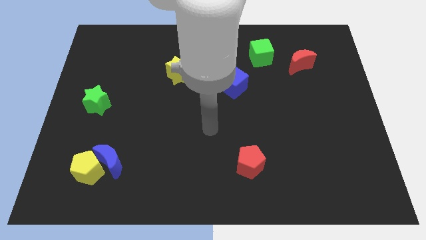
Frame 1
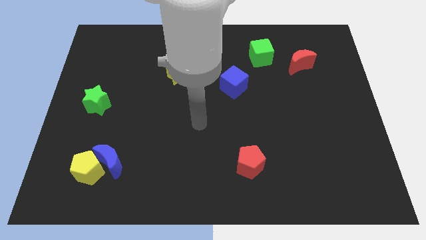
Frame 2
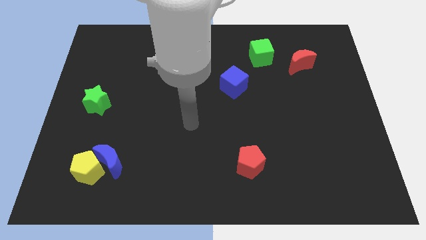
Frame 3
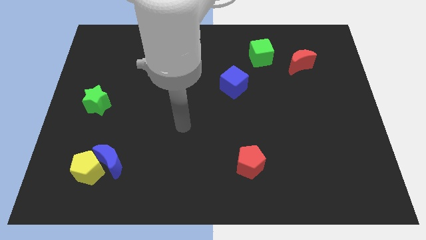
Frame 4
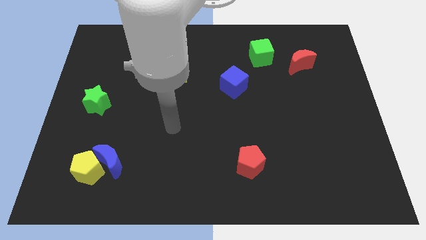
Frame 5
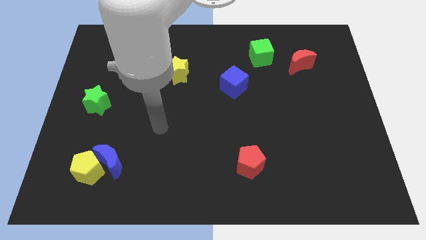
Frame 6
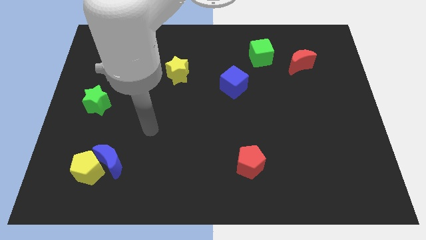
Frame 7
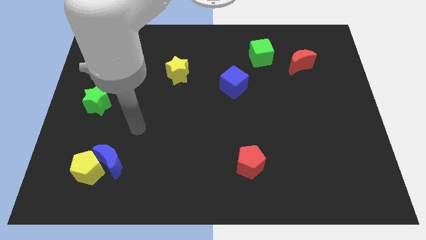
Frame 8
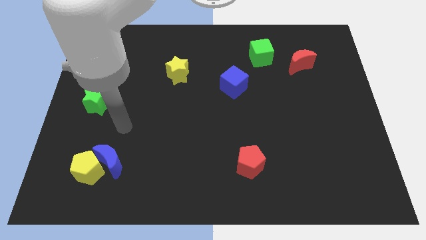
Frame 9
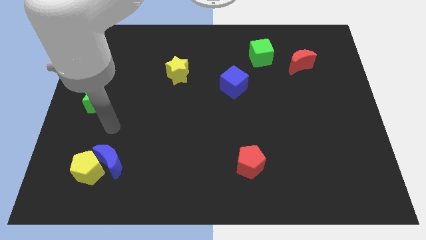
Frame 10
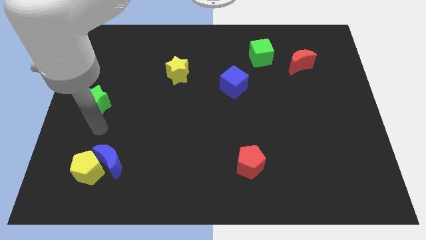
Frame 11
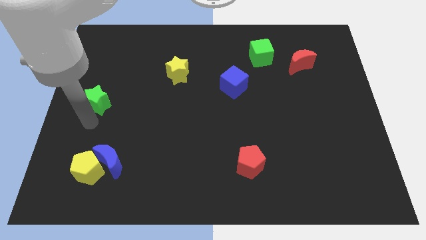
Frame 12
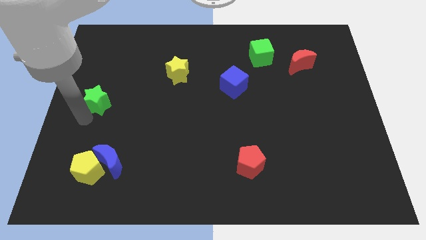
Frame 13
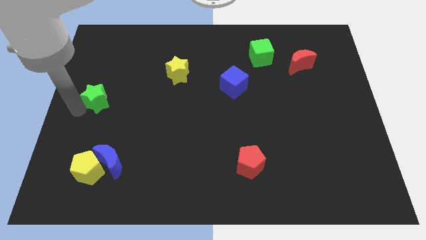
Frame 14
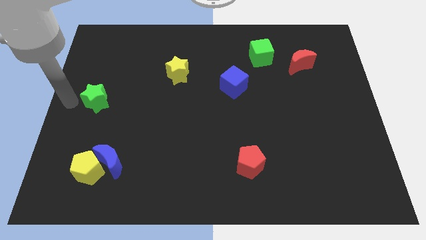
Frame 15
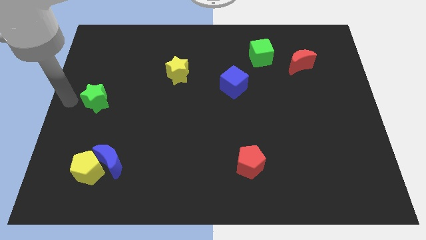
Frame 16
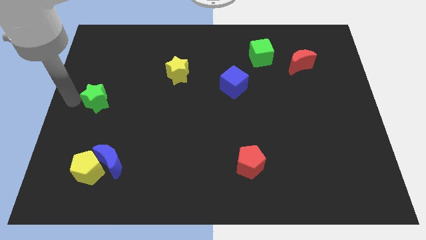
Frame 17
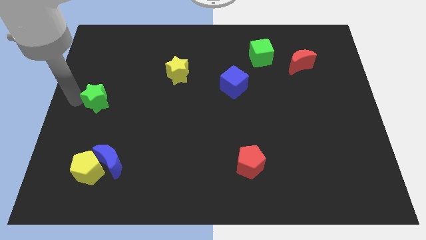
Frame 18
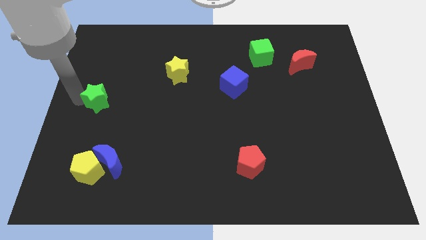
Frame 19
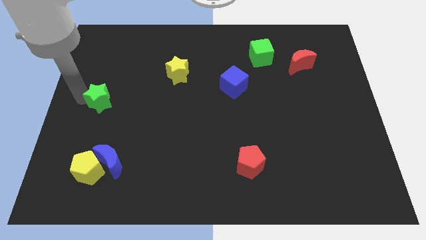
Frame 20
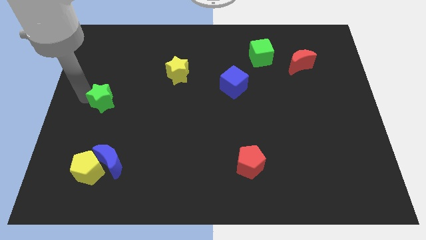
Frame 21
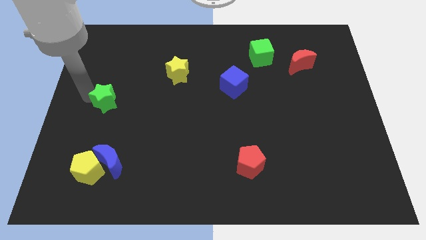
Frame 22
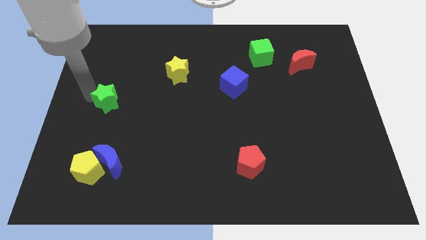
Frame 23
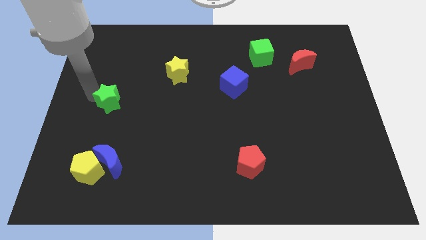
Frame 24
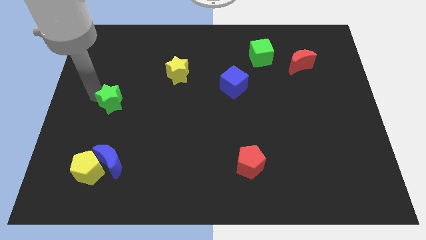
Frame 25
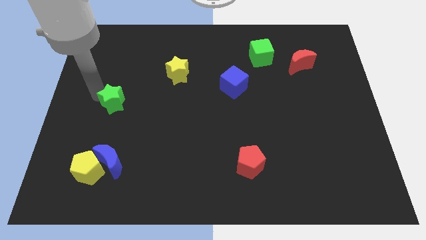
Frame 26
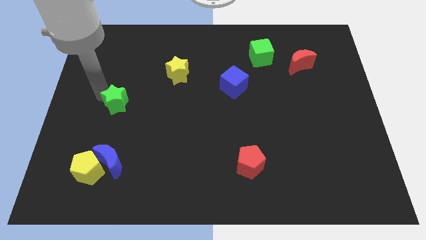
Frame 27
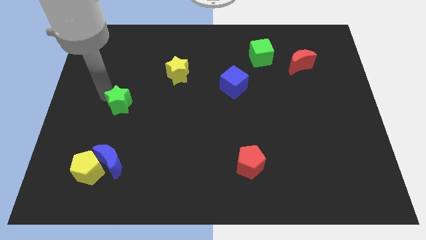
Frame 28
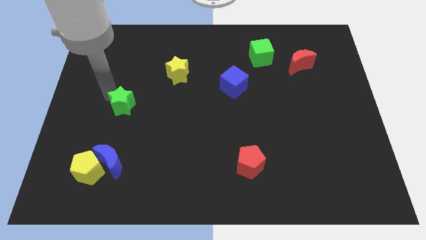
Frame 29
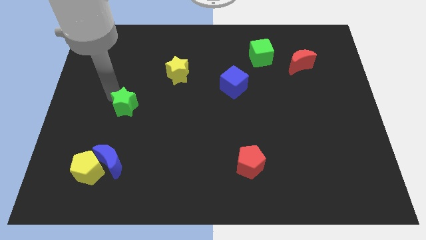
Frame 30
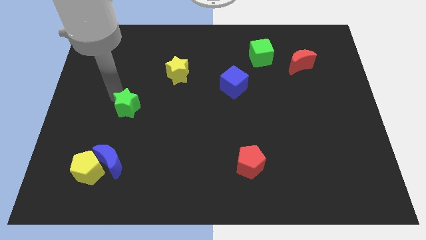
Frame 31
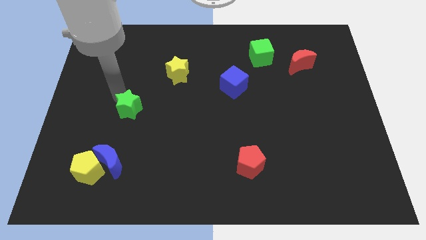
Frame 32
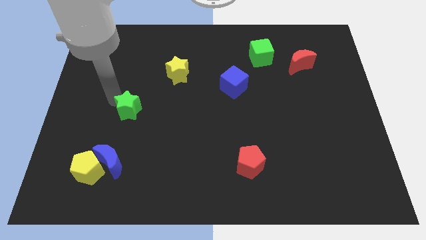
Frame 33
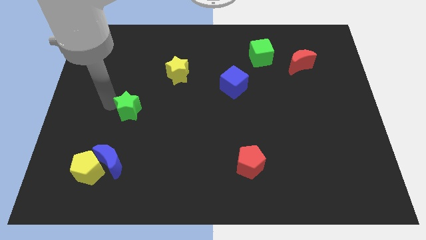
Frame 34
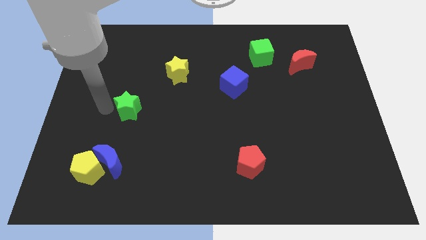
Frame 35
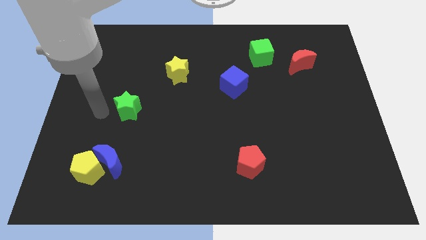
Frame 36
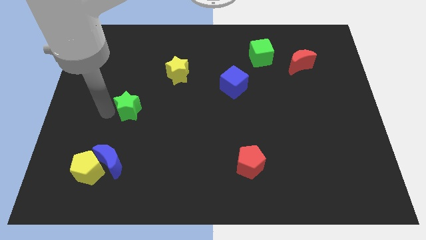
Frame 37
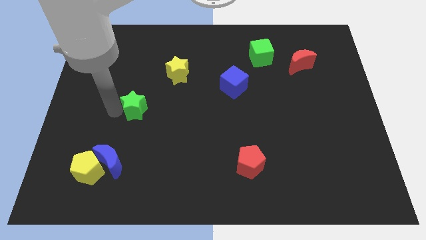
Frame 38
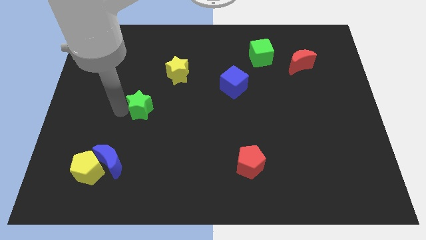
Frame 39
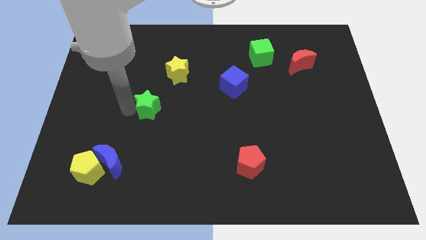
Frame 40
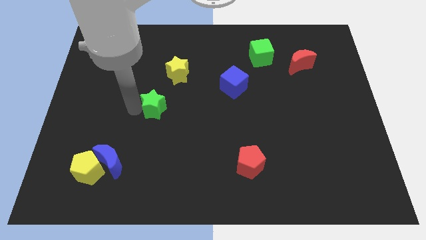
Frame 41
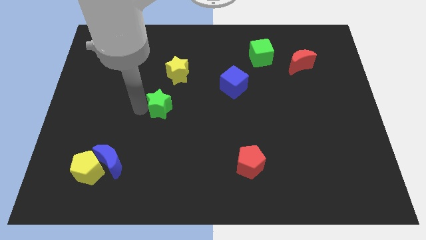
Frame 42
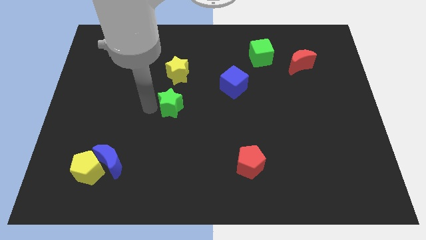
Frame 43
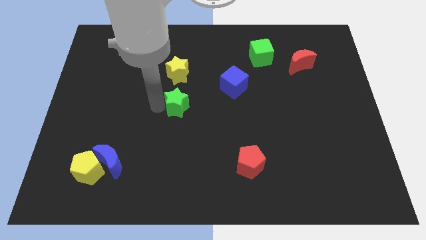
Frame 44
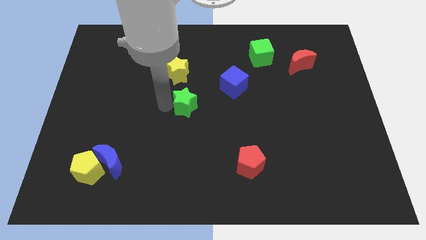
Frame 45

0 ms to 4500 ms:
move the green star right

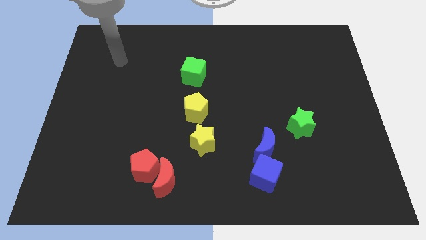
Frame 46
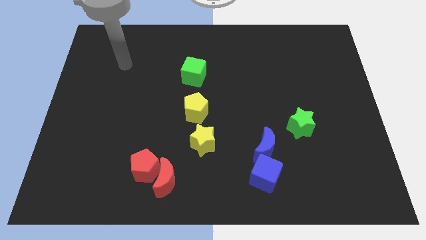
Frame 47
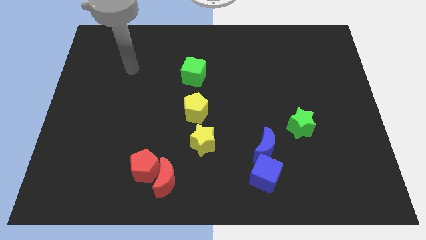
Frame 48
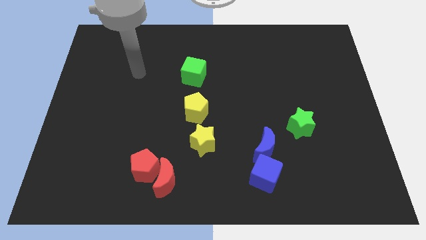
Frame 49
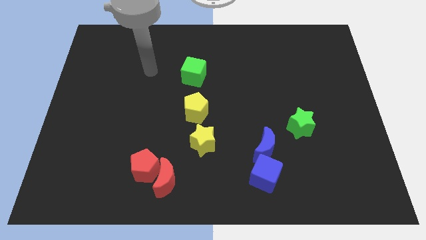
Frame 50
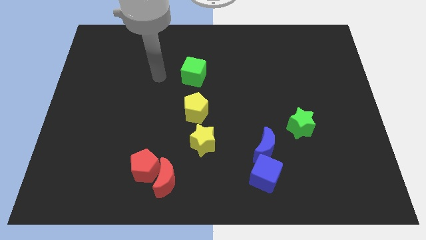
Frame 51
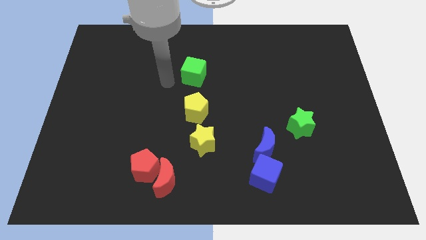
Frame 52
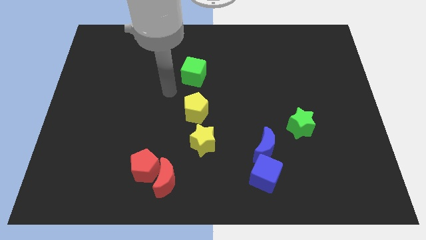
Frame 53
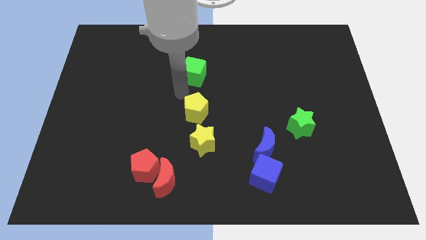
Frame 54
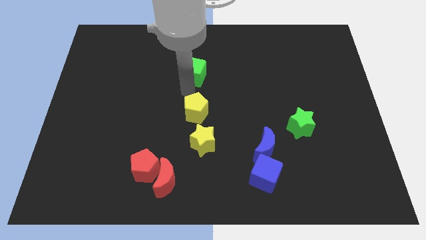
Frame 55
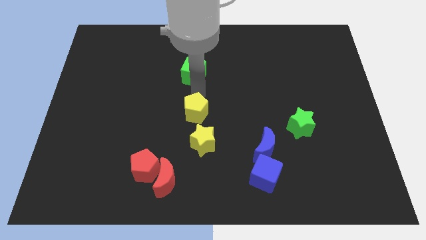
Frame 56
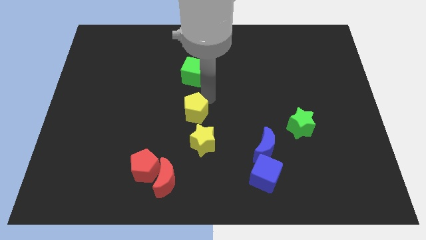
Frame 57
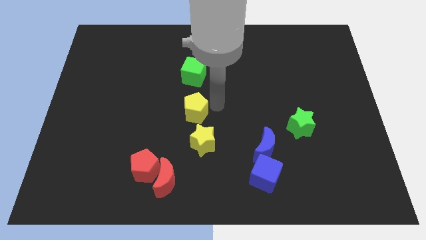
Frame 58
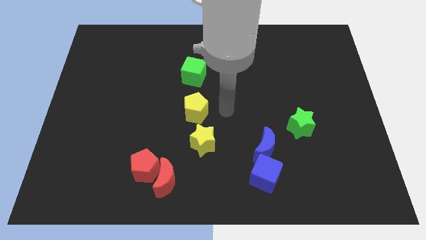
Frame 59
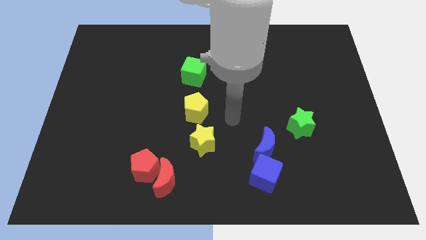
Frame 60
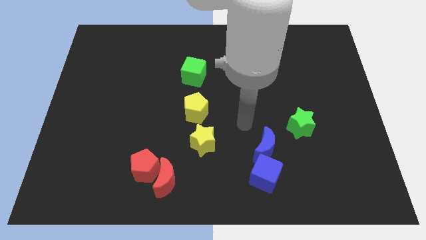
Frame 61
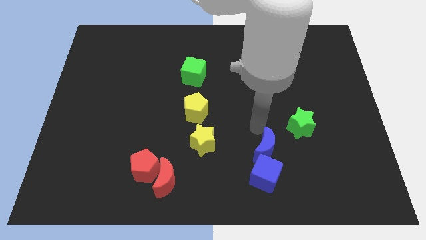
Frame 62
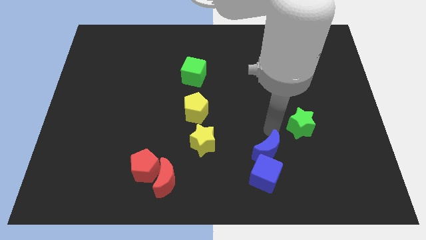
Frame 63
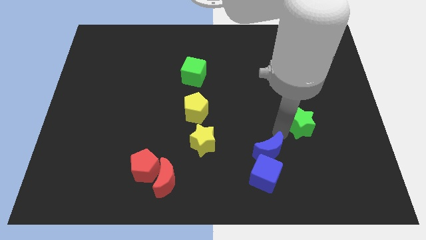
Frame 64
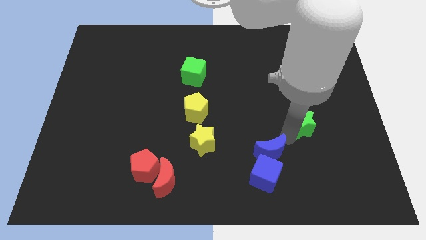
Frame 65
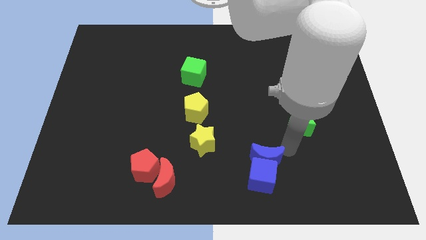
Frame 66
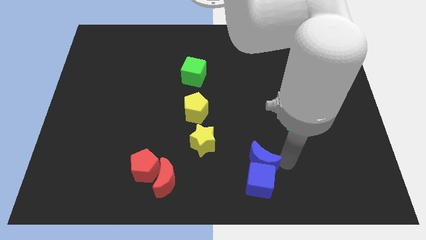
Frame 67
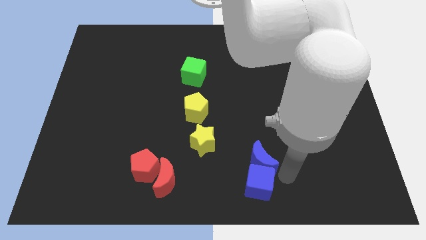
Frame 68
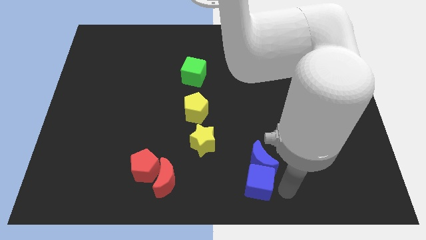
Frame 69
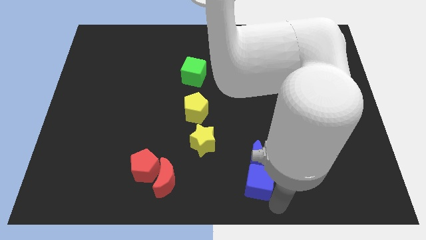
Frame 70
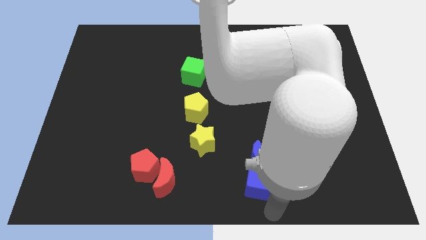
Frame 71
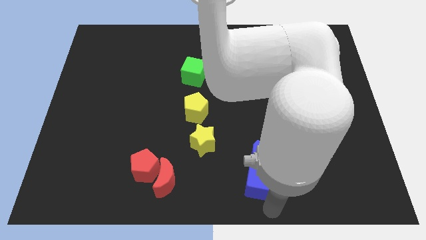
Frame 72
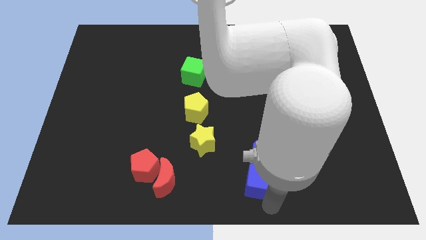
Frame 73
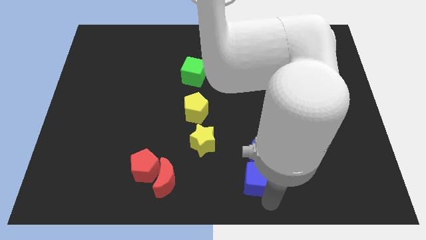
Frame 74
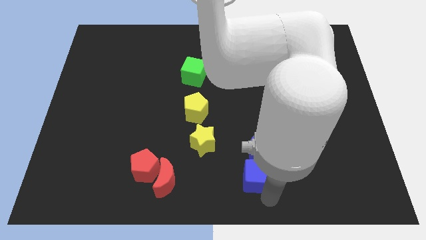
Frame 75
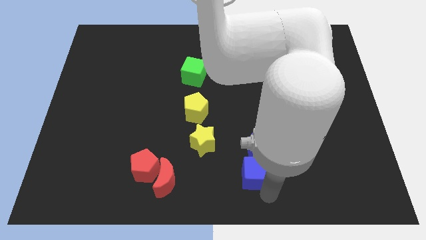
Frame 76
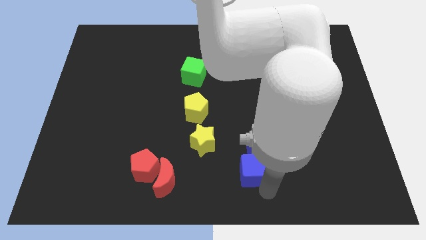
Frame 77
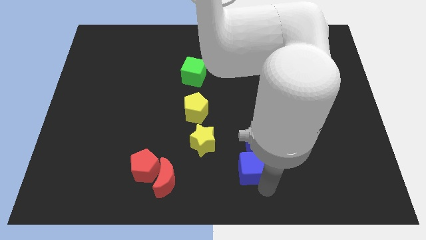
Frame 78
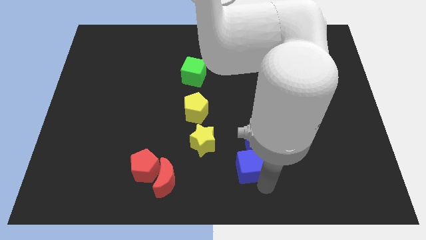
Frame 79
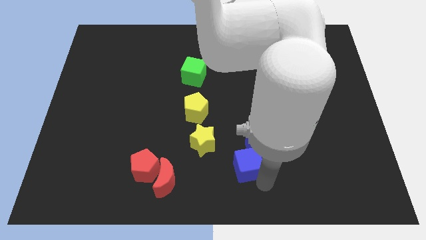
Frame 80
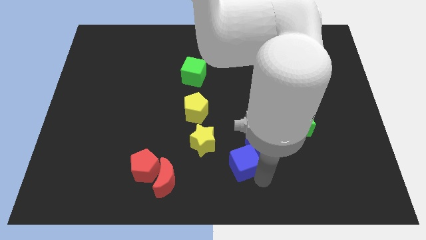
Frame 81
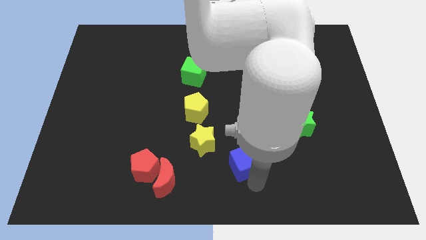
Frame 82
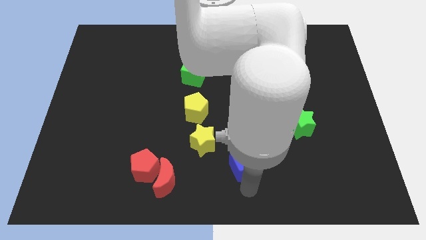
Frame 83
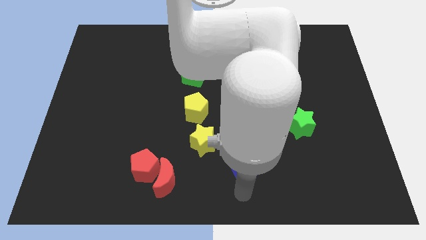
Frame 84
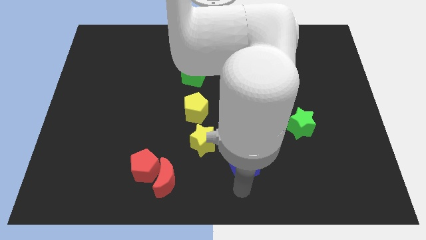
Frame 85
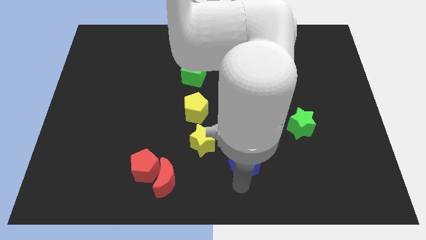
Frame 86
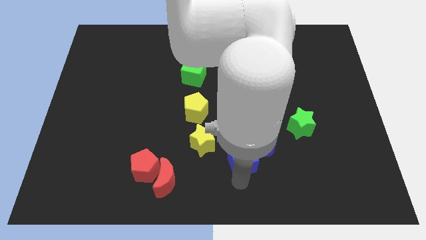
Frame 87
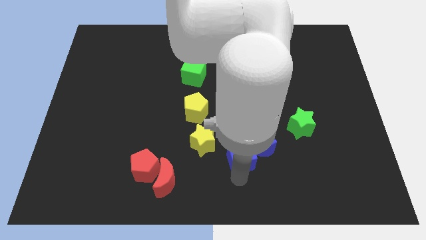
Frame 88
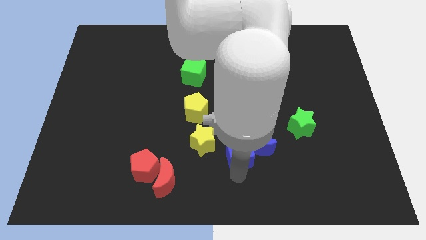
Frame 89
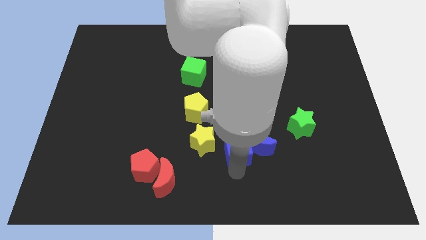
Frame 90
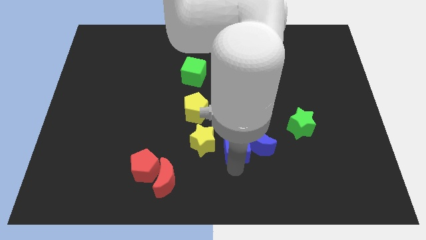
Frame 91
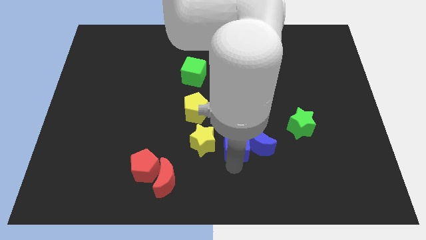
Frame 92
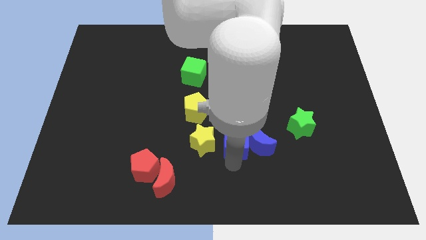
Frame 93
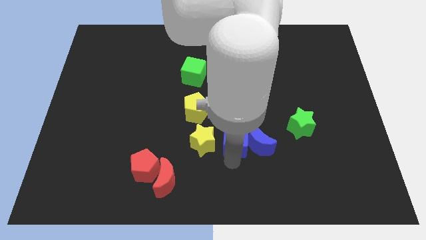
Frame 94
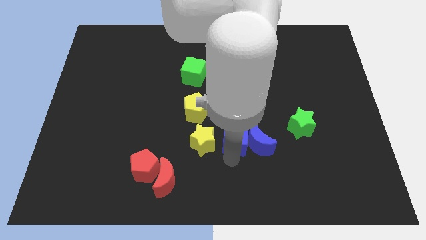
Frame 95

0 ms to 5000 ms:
slightly push the blue cube upwards
